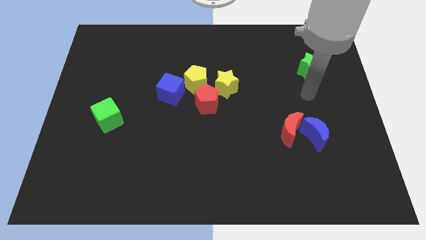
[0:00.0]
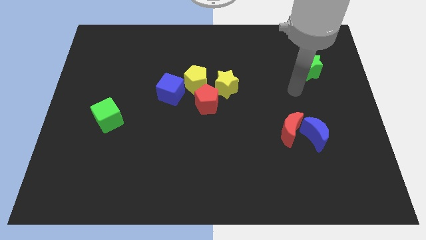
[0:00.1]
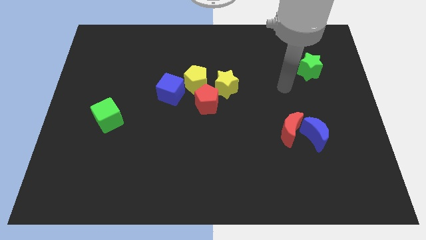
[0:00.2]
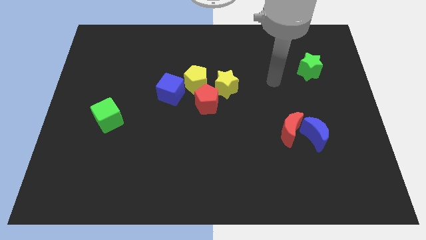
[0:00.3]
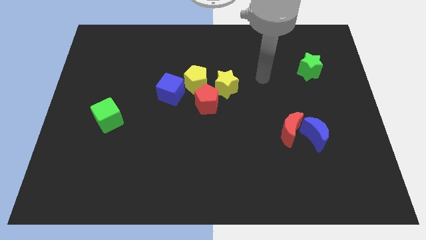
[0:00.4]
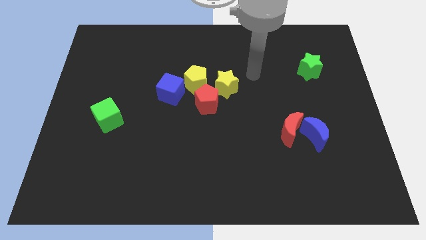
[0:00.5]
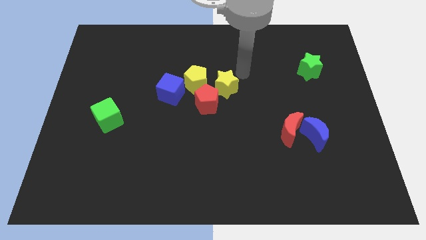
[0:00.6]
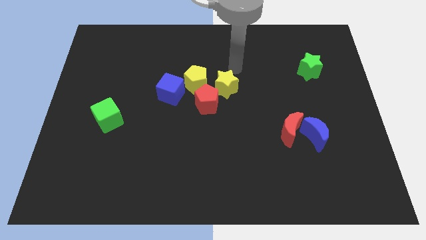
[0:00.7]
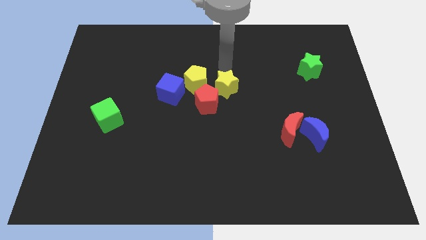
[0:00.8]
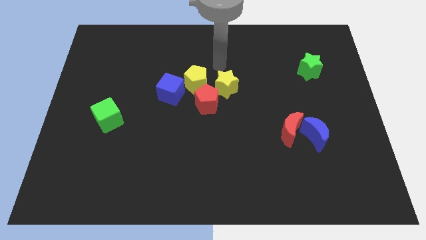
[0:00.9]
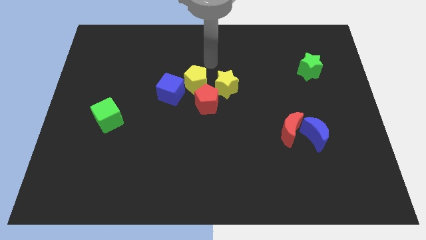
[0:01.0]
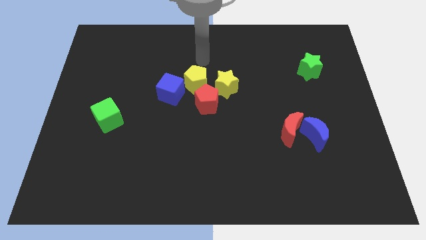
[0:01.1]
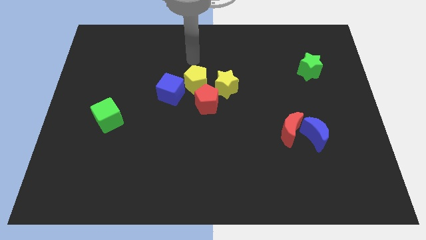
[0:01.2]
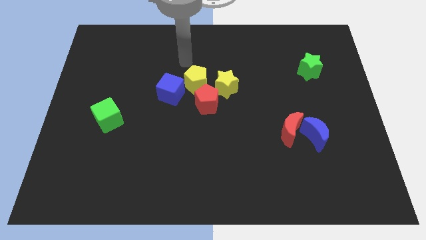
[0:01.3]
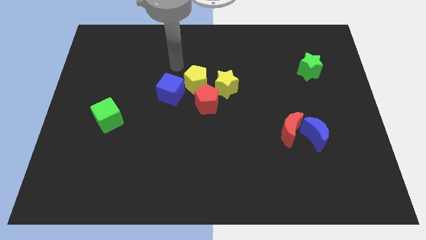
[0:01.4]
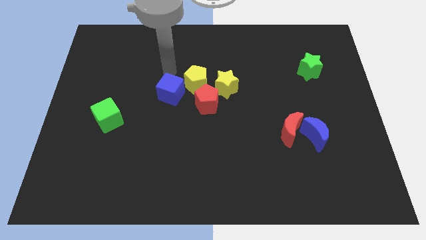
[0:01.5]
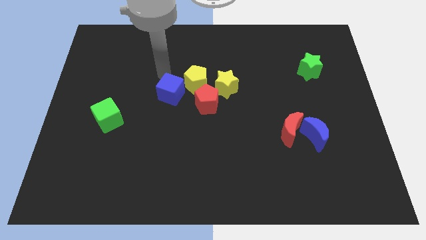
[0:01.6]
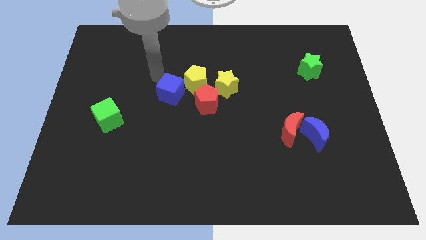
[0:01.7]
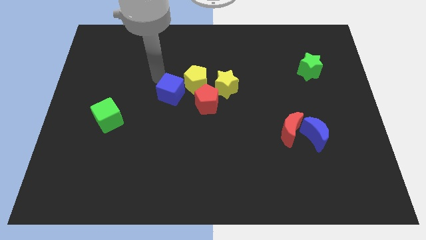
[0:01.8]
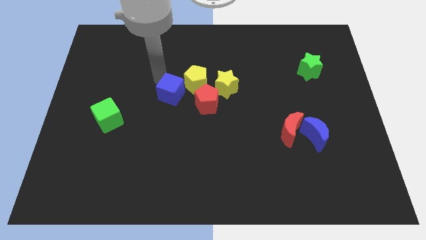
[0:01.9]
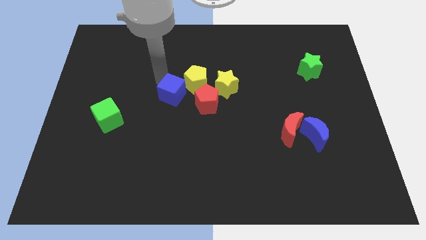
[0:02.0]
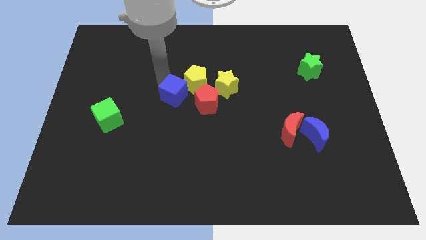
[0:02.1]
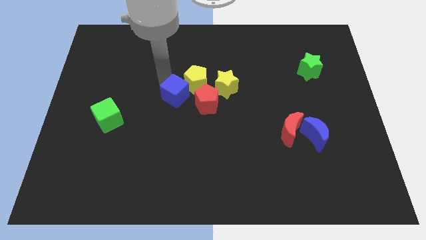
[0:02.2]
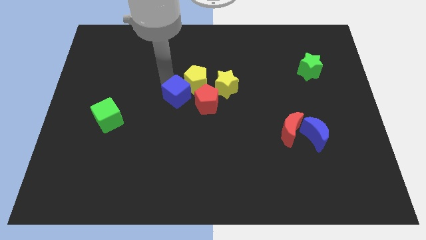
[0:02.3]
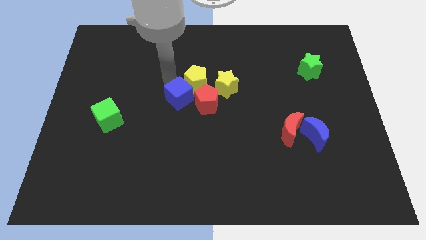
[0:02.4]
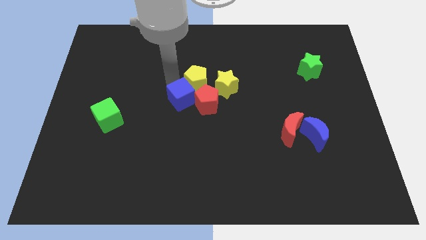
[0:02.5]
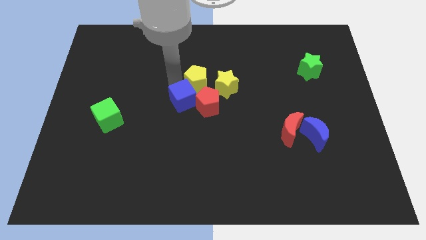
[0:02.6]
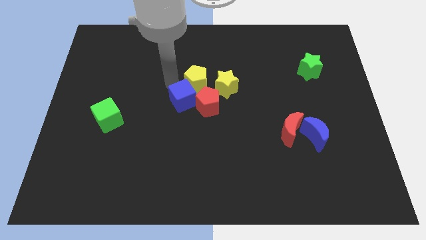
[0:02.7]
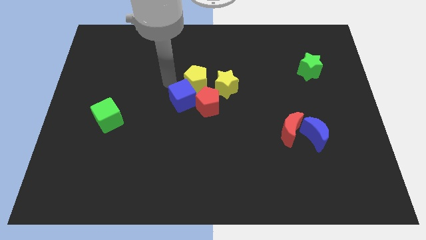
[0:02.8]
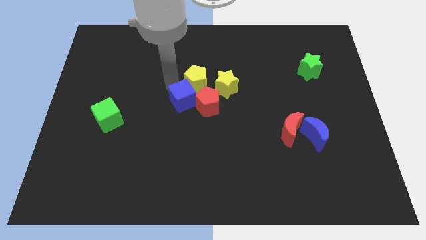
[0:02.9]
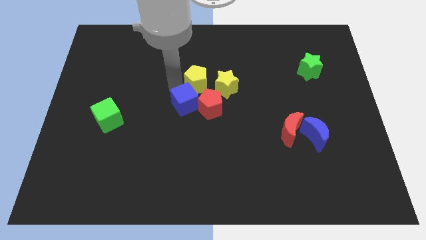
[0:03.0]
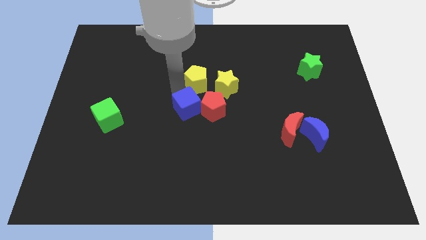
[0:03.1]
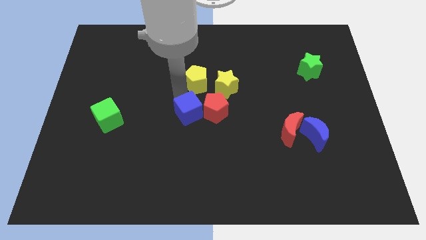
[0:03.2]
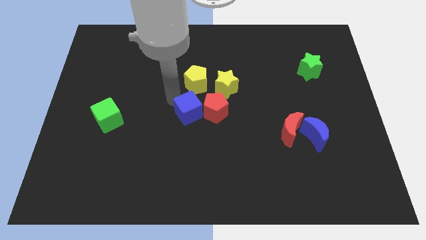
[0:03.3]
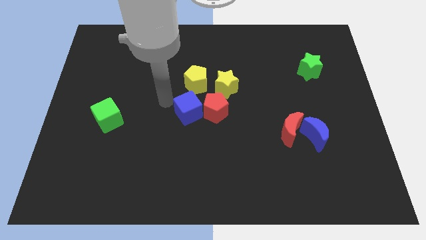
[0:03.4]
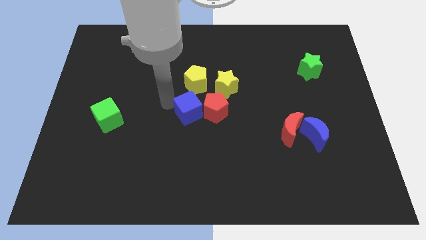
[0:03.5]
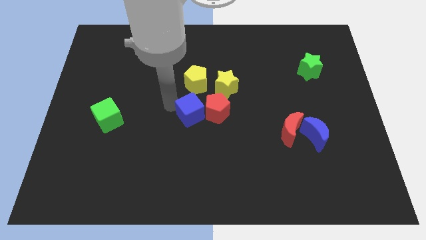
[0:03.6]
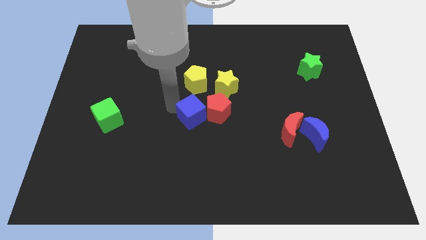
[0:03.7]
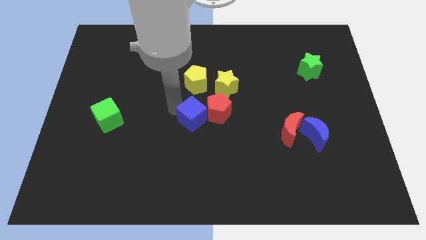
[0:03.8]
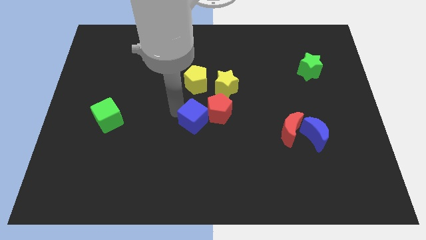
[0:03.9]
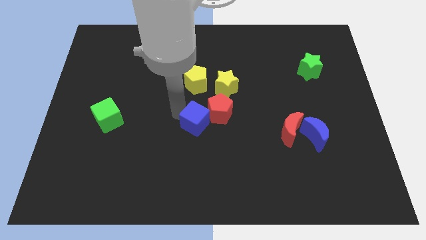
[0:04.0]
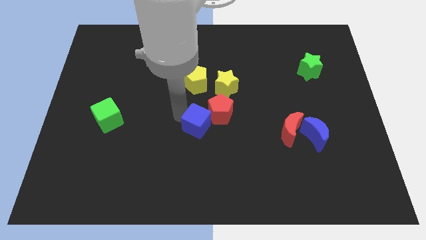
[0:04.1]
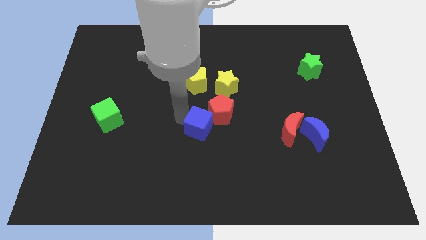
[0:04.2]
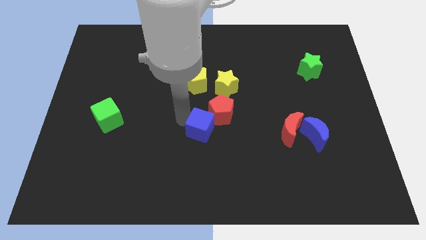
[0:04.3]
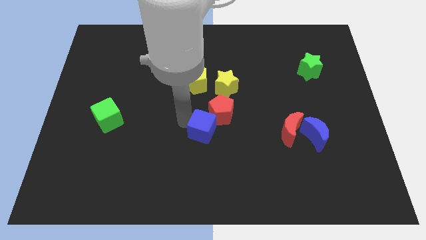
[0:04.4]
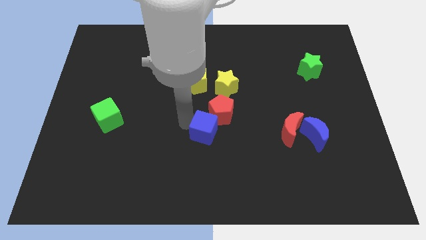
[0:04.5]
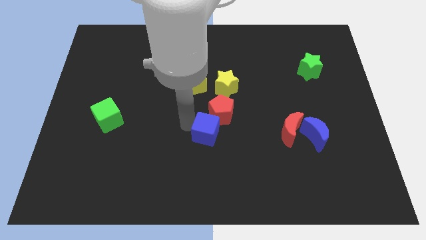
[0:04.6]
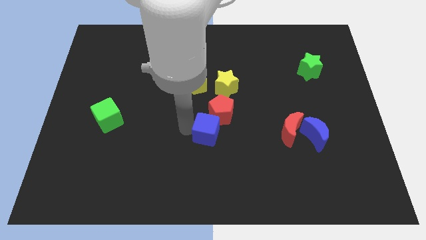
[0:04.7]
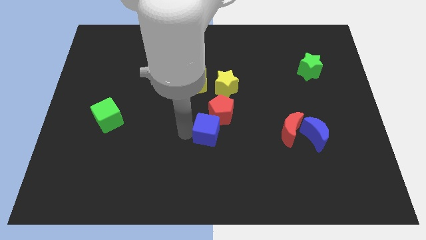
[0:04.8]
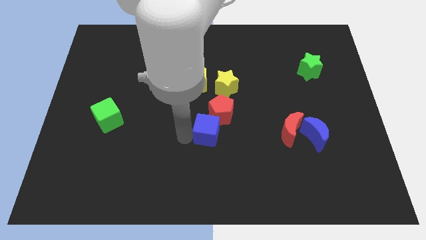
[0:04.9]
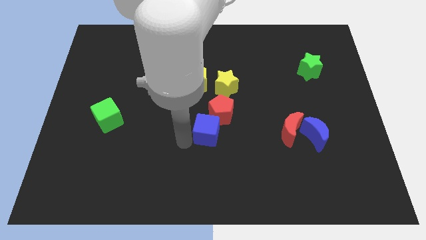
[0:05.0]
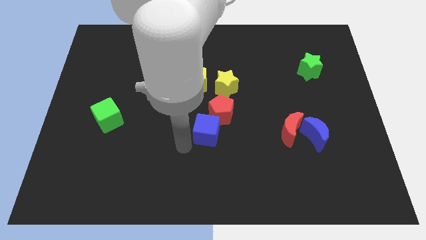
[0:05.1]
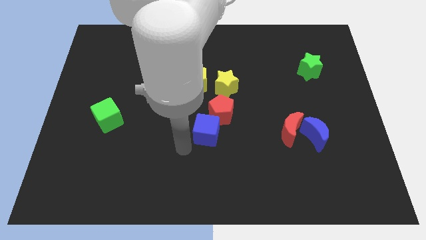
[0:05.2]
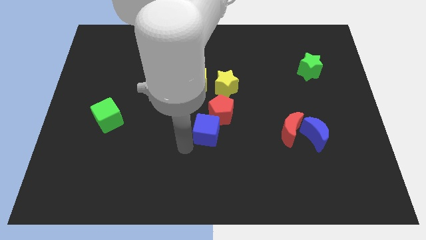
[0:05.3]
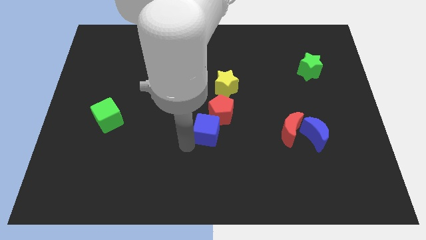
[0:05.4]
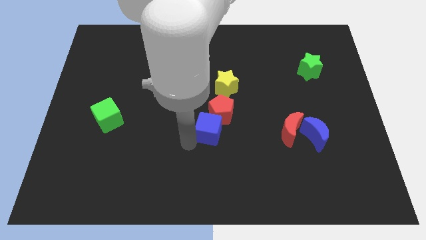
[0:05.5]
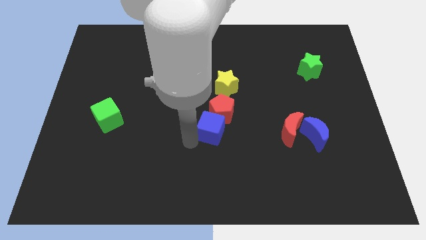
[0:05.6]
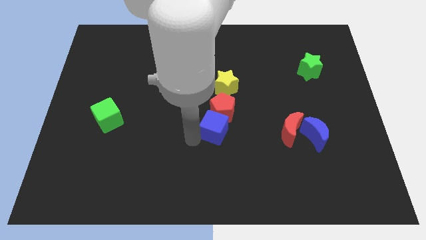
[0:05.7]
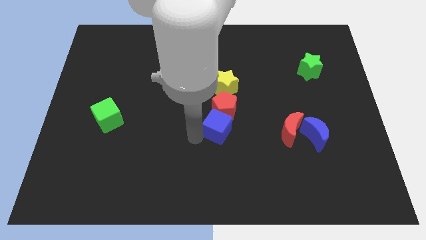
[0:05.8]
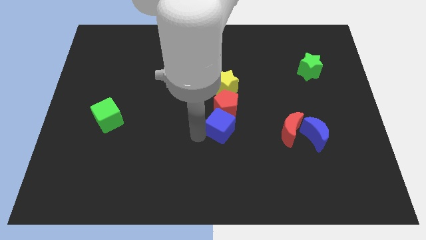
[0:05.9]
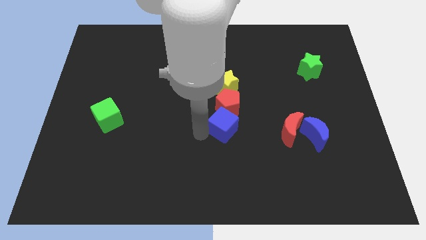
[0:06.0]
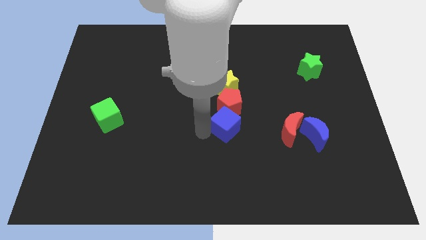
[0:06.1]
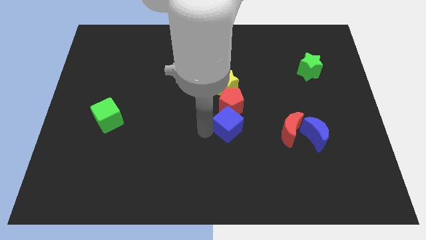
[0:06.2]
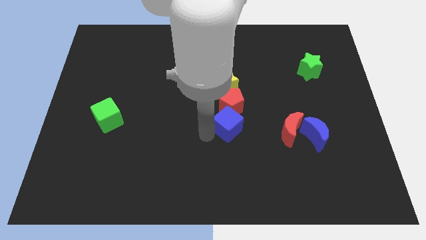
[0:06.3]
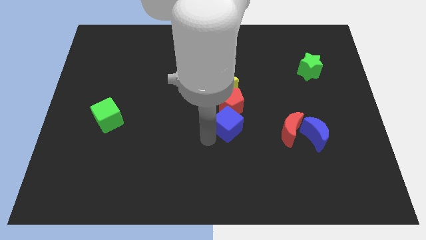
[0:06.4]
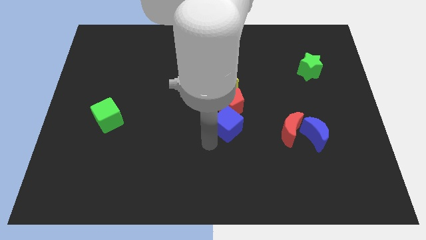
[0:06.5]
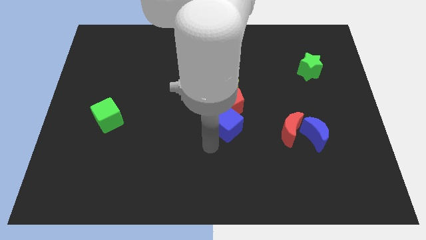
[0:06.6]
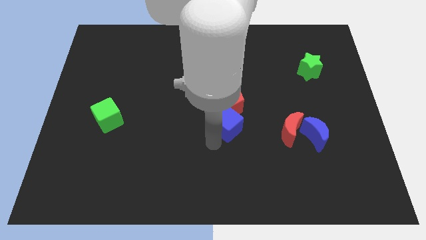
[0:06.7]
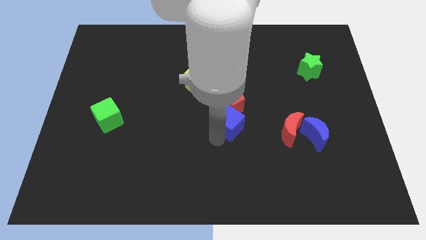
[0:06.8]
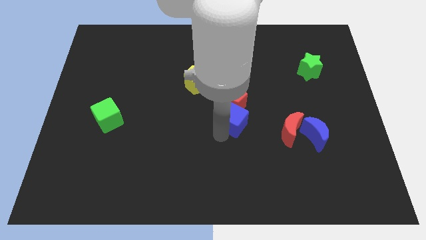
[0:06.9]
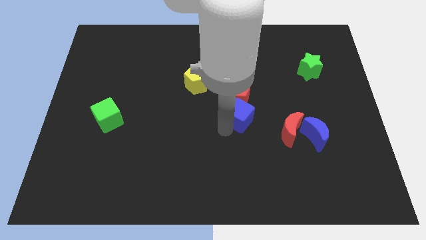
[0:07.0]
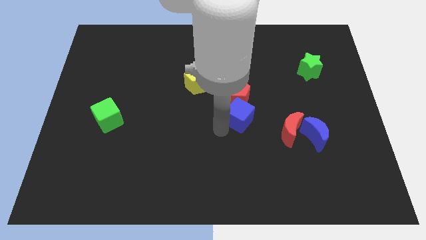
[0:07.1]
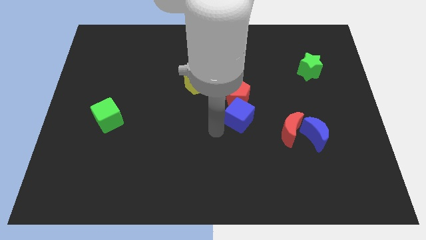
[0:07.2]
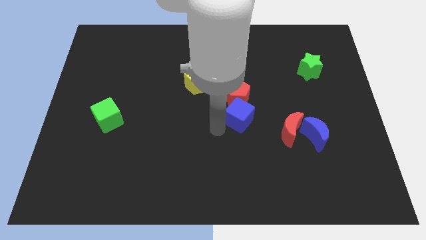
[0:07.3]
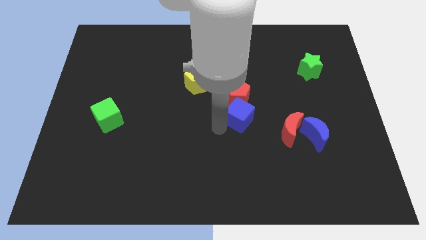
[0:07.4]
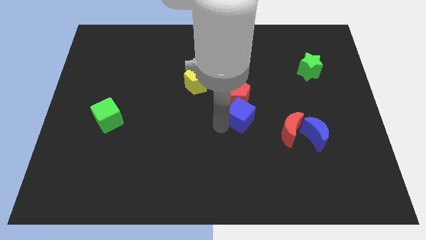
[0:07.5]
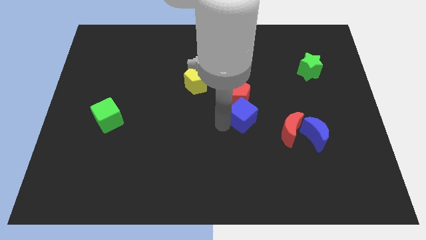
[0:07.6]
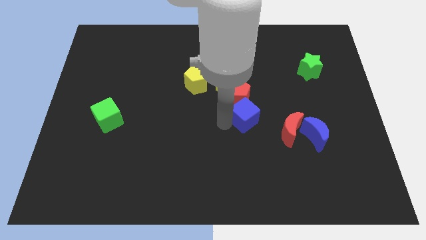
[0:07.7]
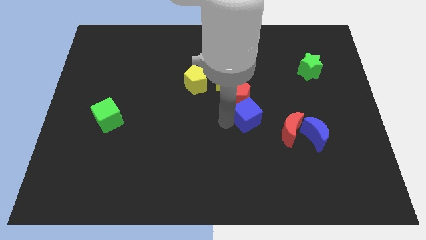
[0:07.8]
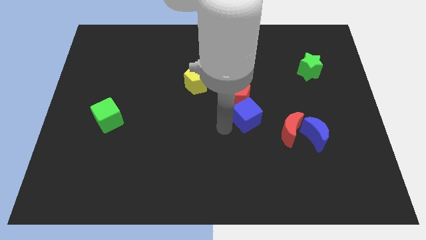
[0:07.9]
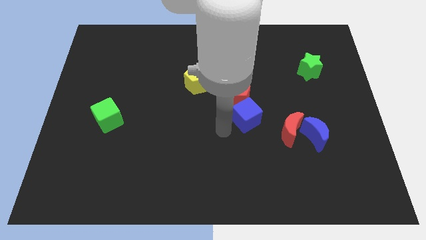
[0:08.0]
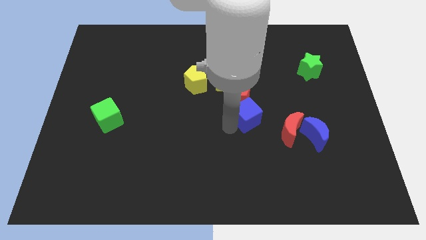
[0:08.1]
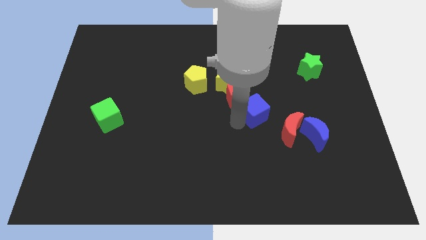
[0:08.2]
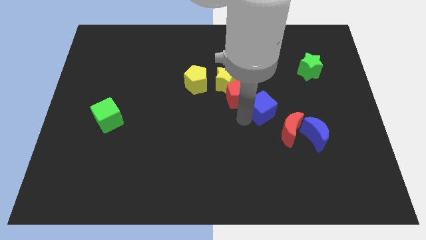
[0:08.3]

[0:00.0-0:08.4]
slide the blue cube right
